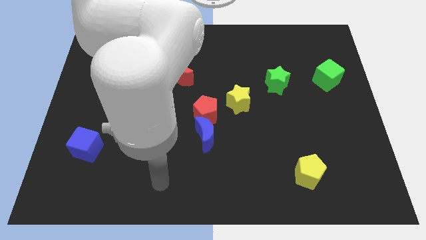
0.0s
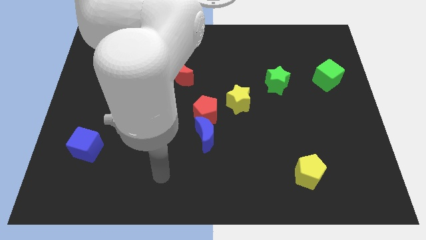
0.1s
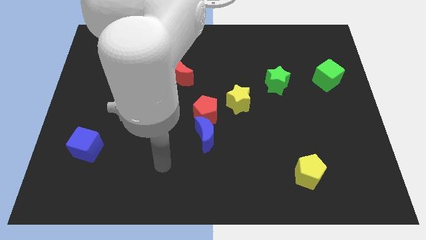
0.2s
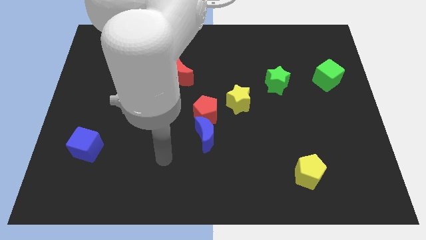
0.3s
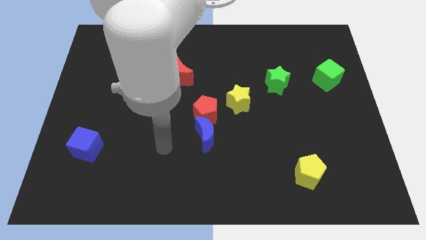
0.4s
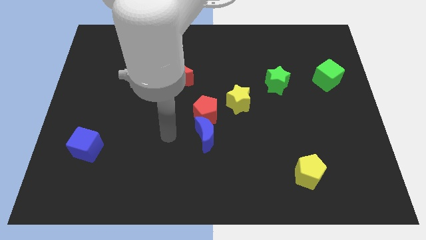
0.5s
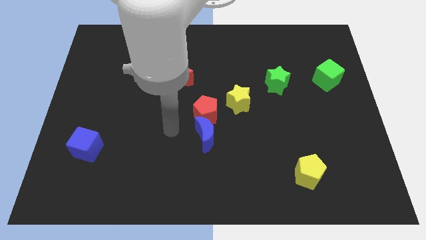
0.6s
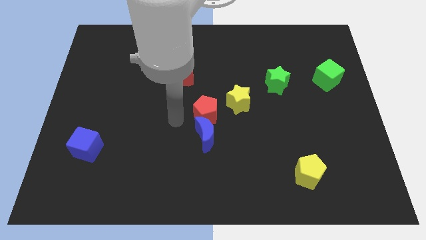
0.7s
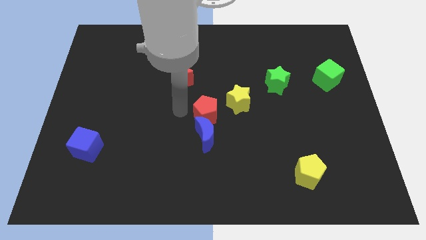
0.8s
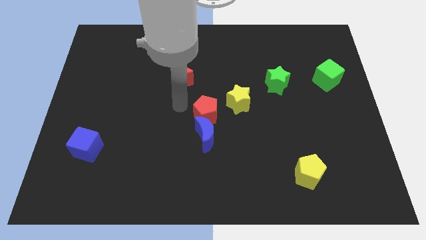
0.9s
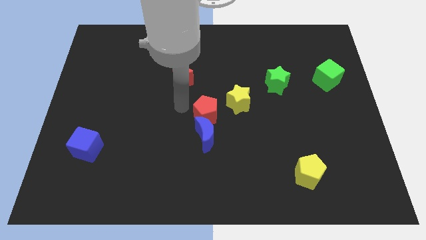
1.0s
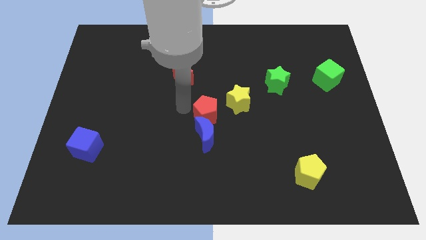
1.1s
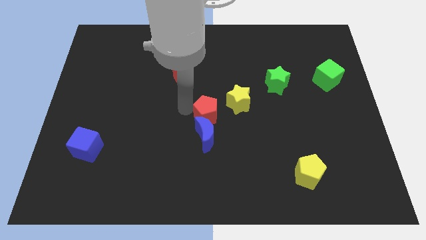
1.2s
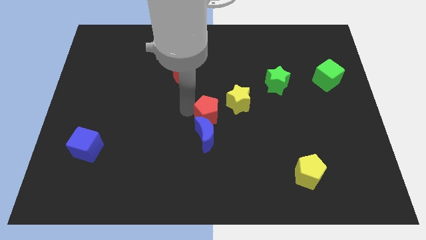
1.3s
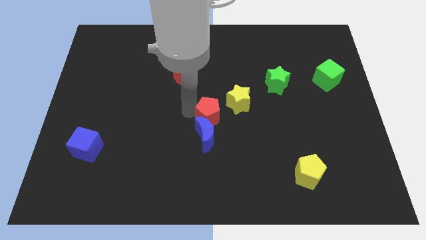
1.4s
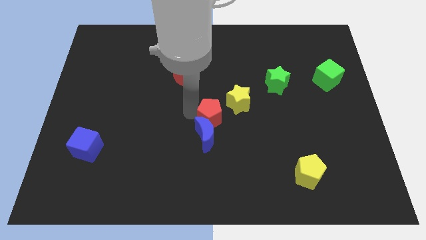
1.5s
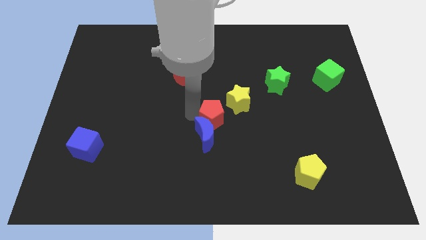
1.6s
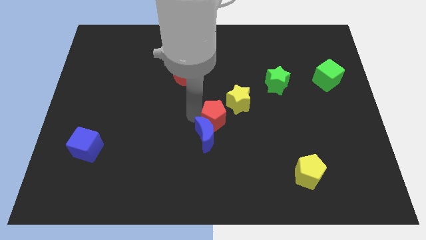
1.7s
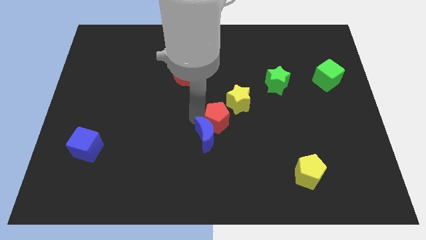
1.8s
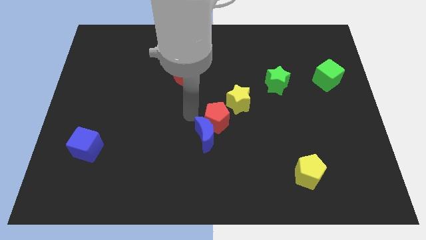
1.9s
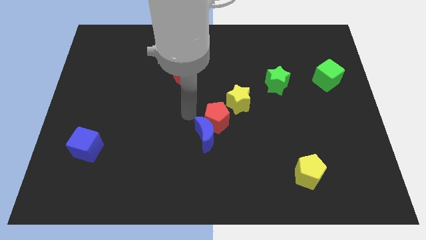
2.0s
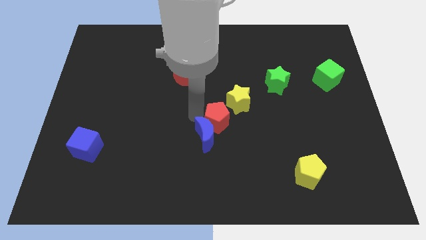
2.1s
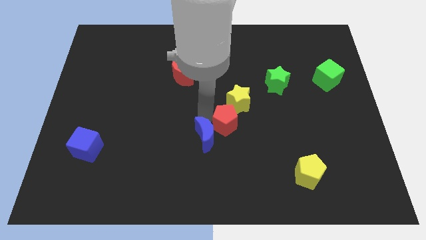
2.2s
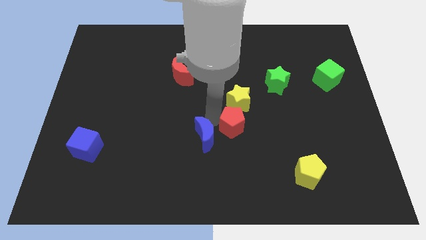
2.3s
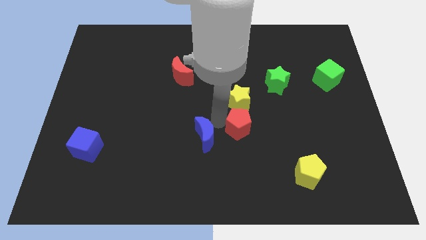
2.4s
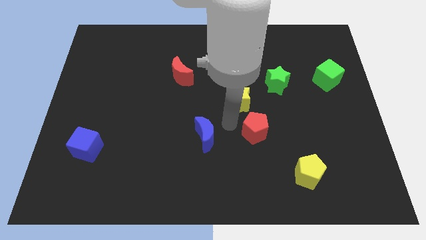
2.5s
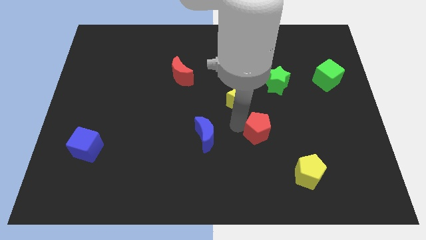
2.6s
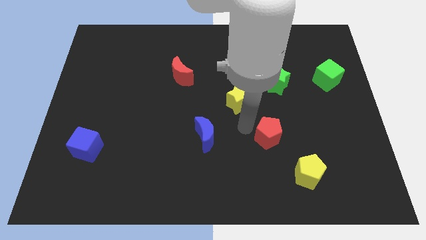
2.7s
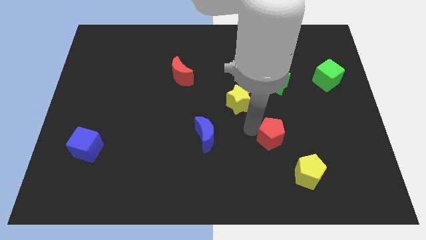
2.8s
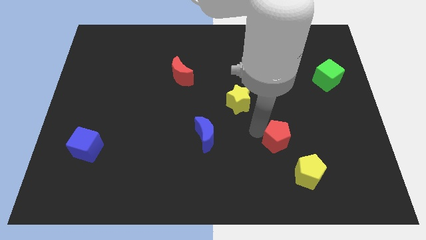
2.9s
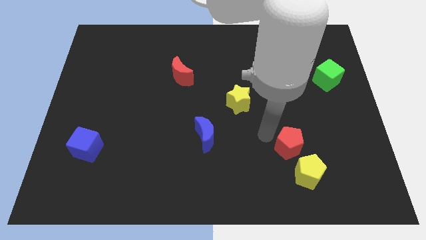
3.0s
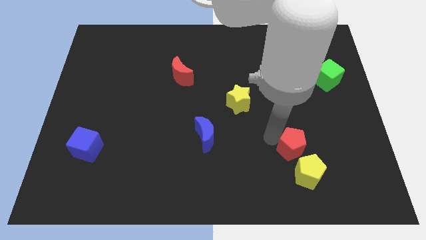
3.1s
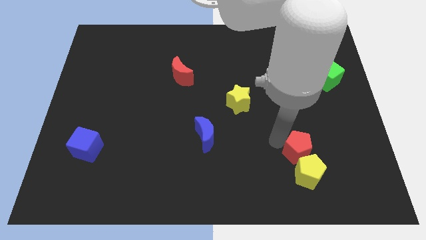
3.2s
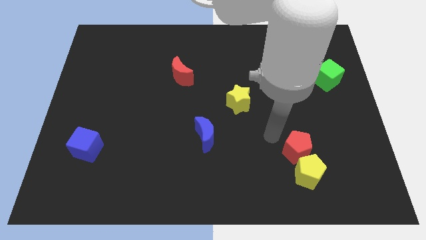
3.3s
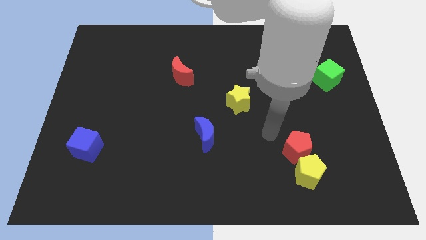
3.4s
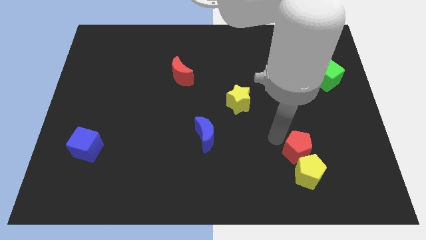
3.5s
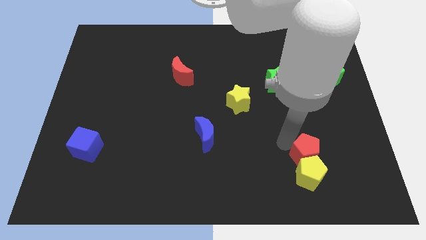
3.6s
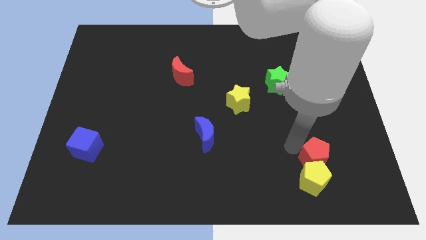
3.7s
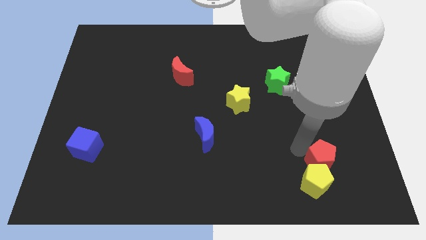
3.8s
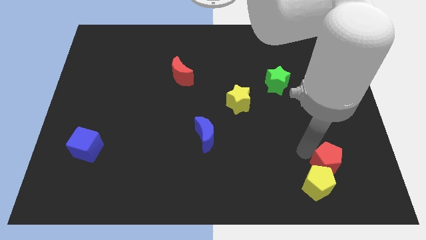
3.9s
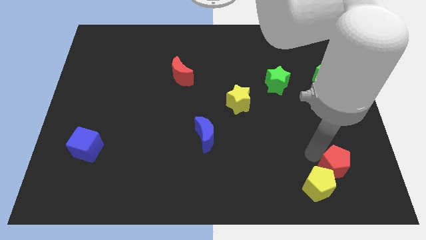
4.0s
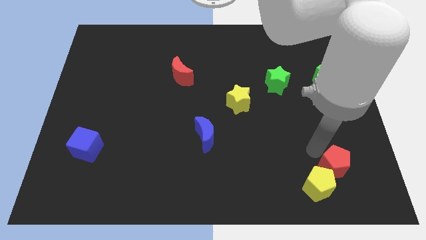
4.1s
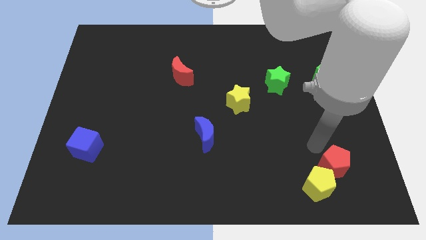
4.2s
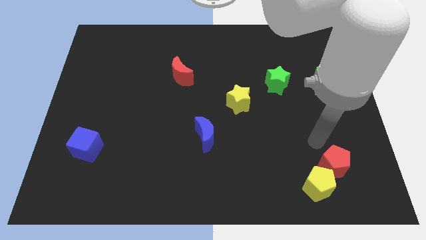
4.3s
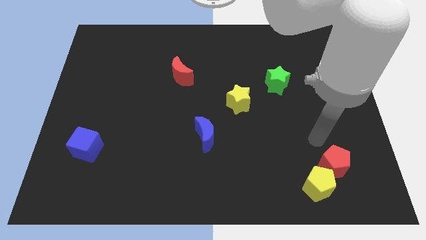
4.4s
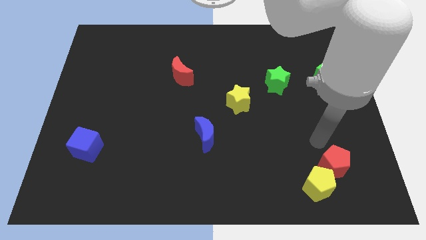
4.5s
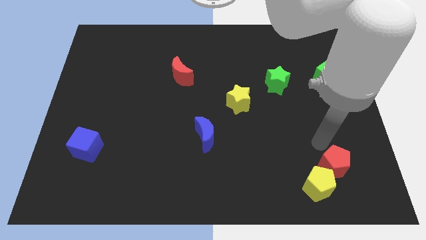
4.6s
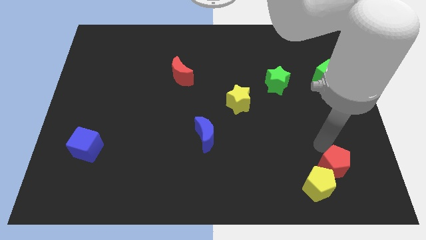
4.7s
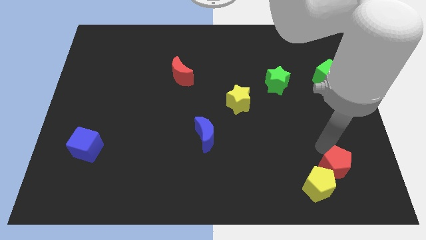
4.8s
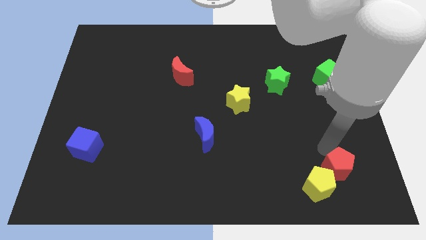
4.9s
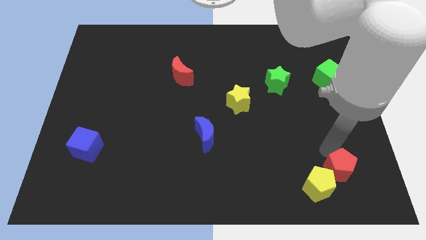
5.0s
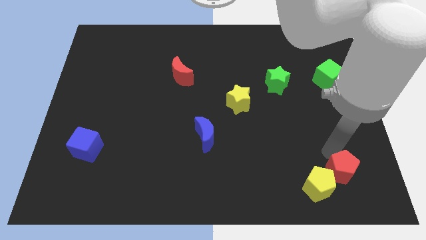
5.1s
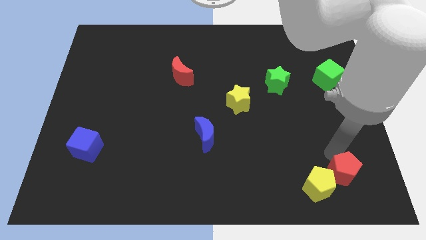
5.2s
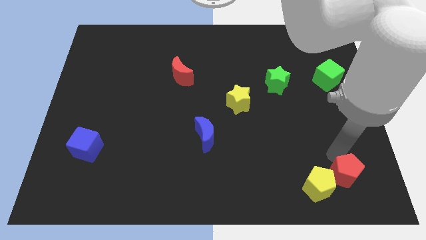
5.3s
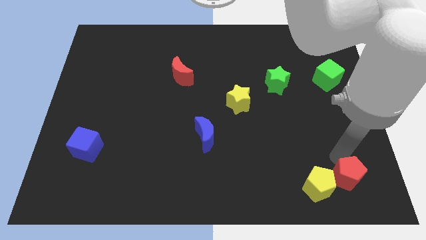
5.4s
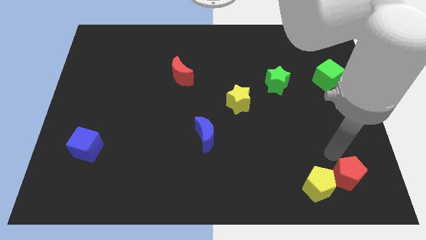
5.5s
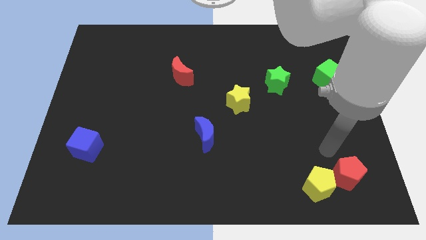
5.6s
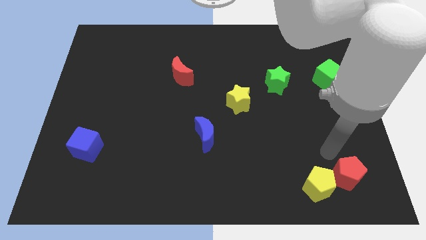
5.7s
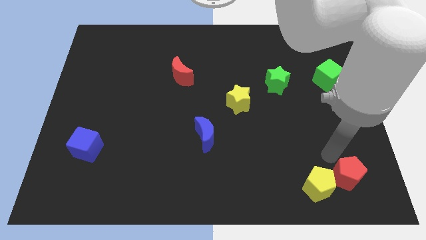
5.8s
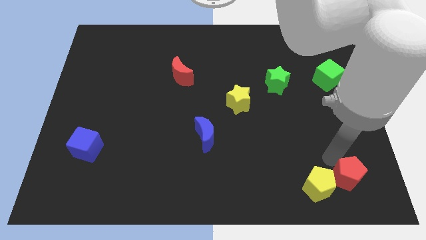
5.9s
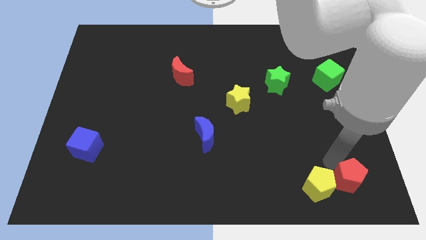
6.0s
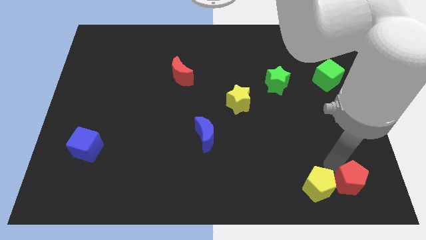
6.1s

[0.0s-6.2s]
slide the red pentagon to the lower right corner
